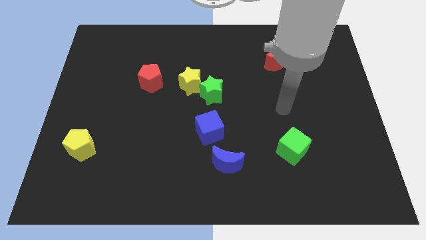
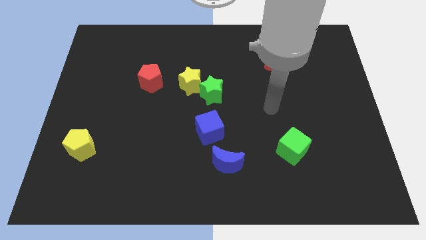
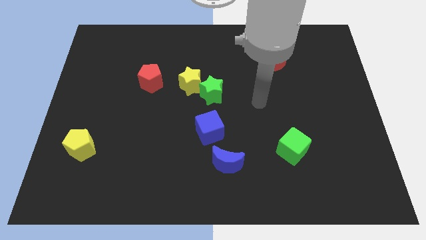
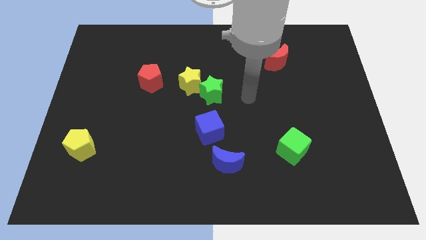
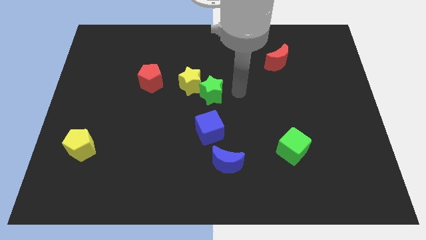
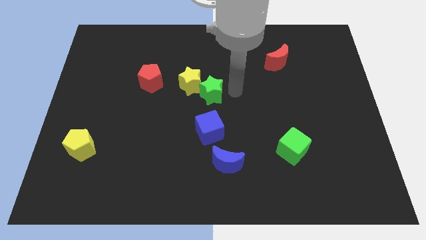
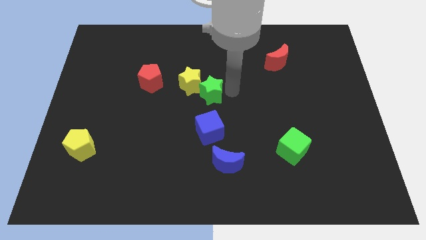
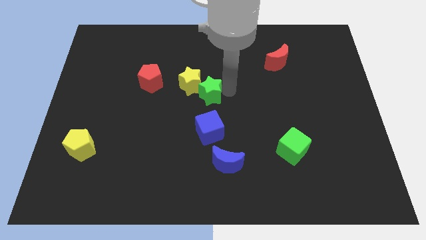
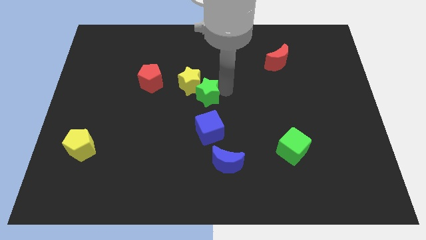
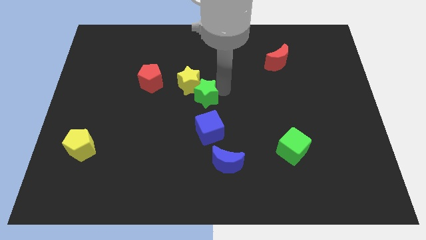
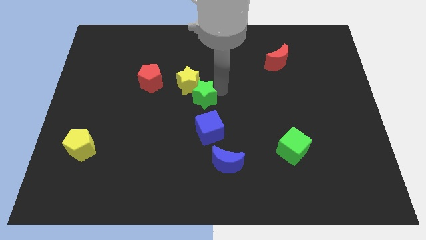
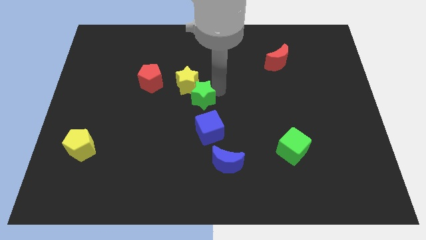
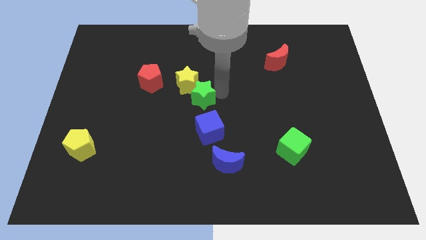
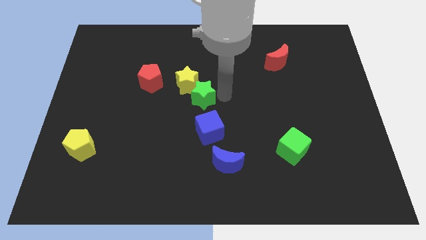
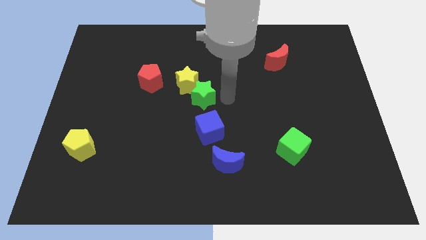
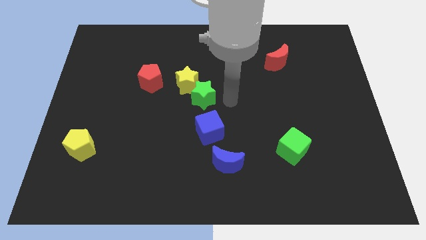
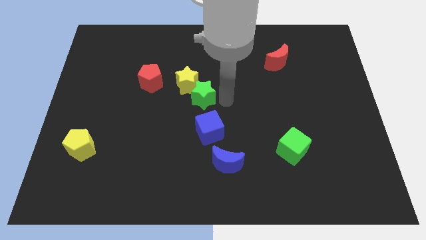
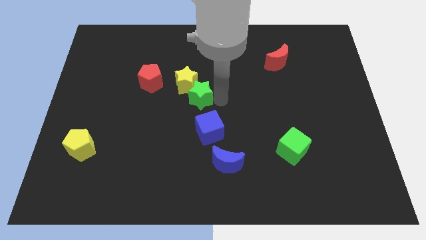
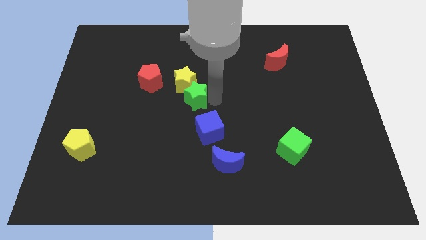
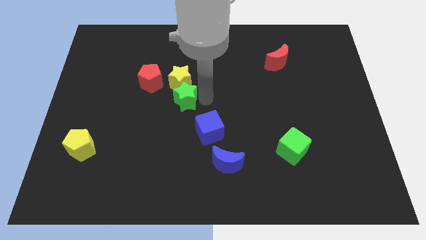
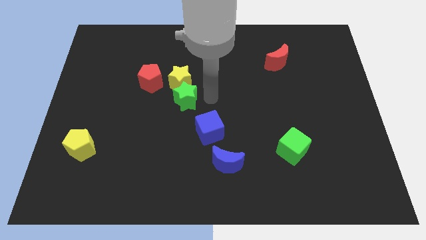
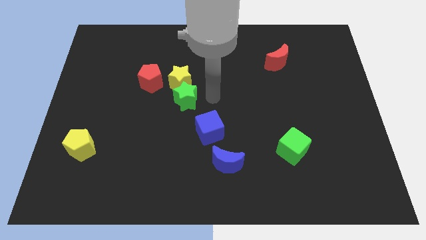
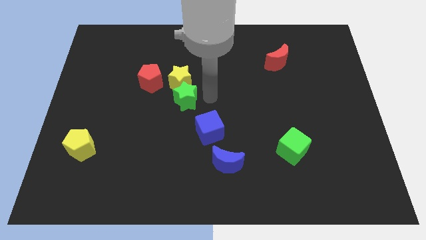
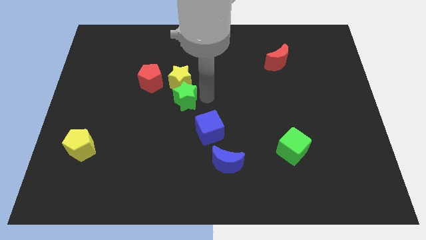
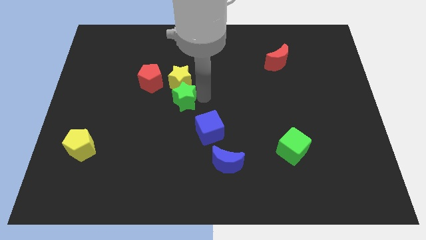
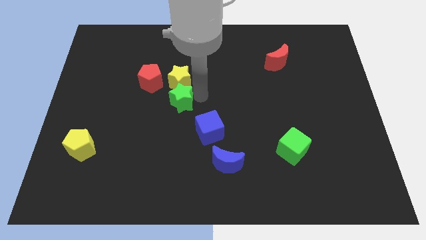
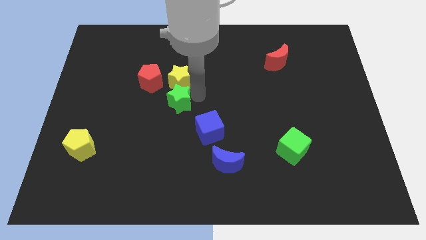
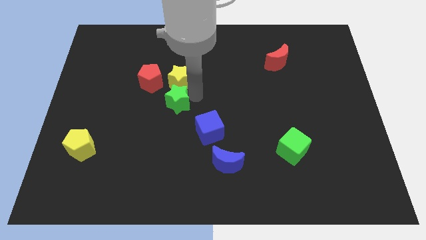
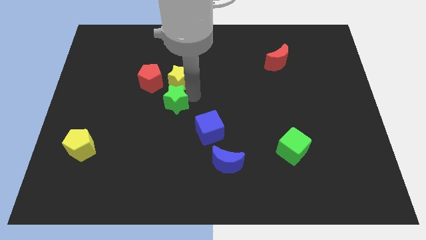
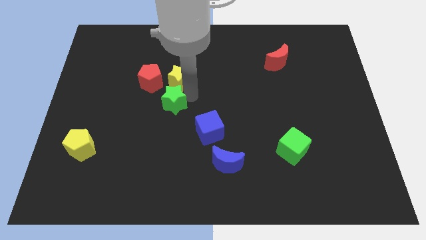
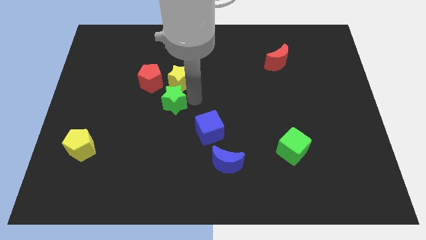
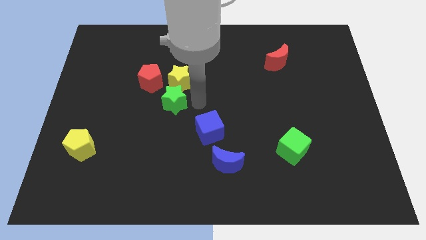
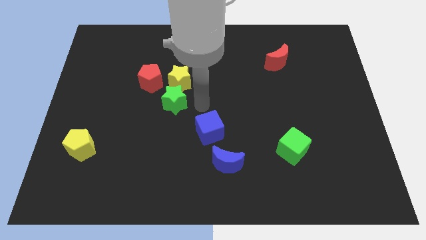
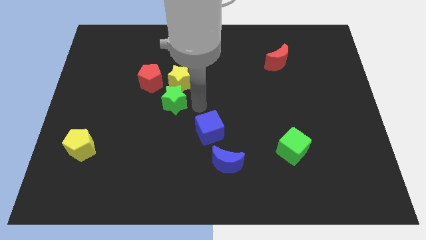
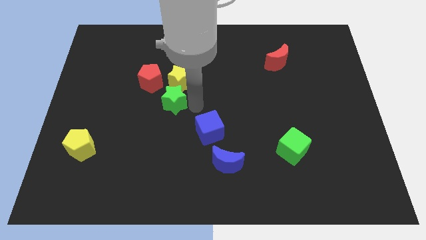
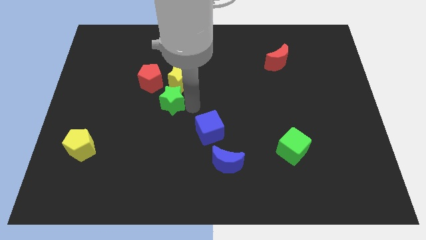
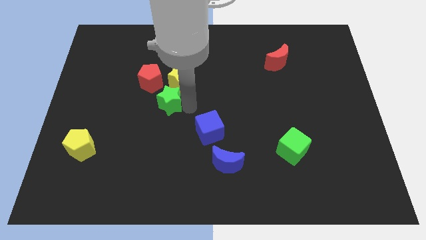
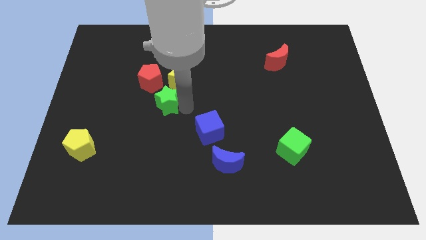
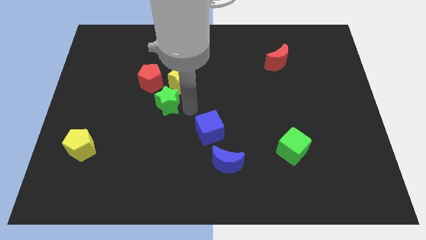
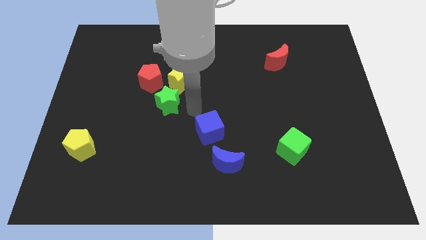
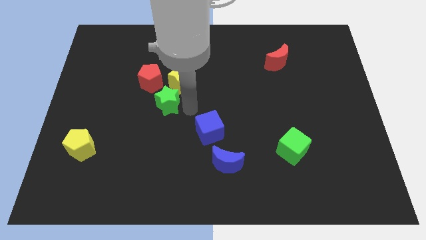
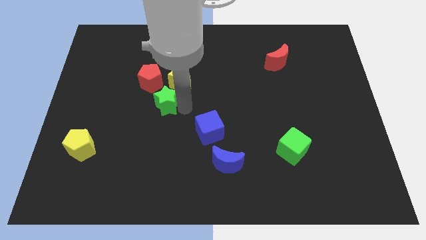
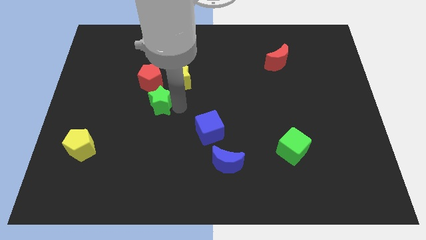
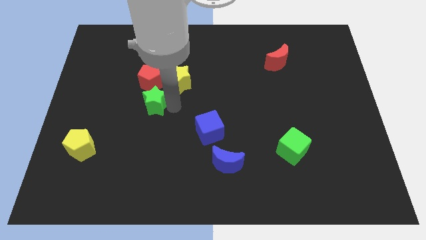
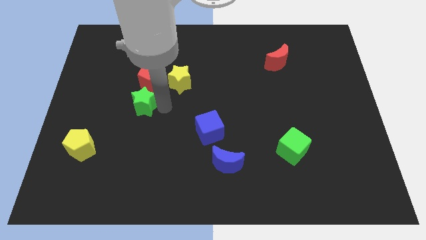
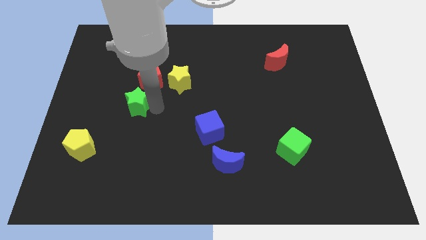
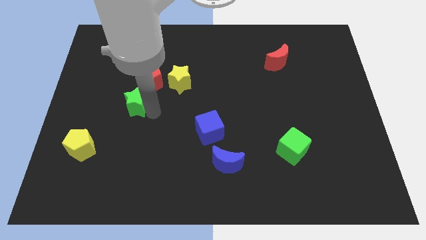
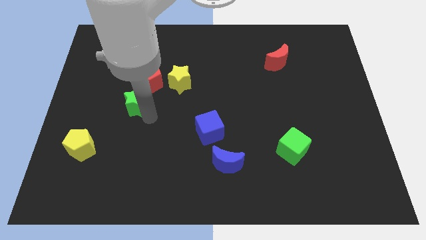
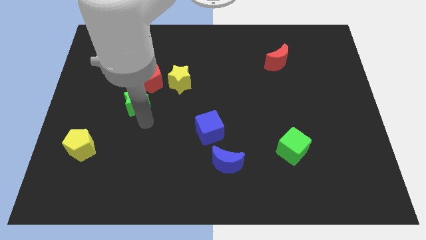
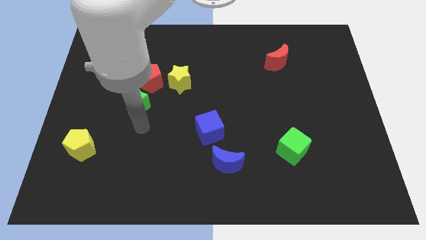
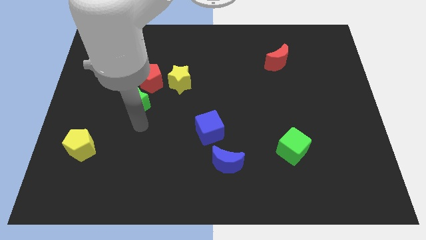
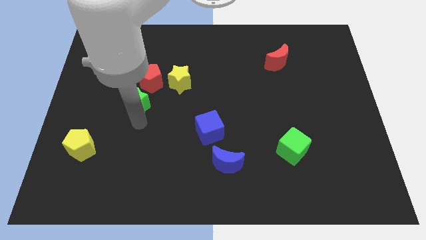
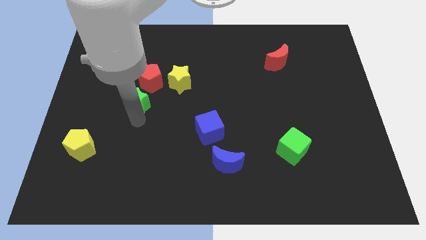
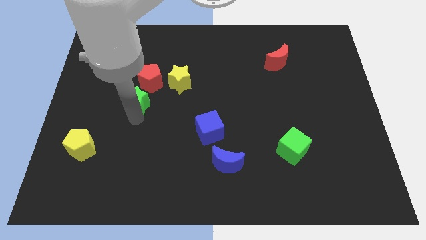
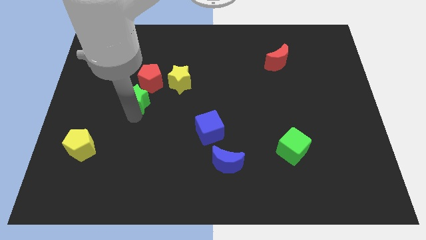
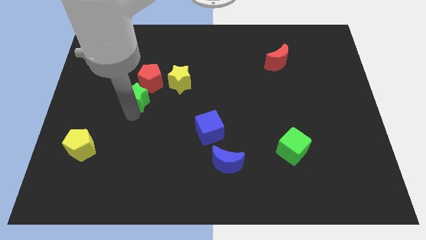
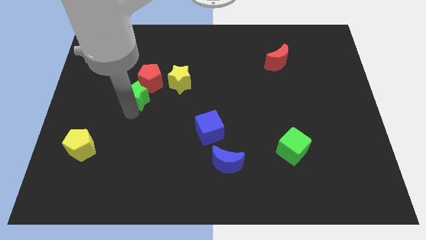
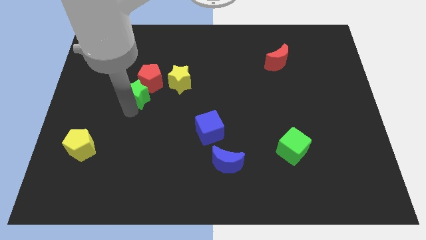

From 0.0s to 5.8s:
put the green star just left of the yellow star

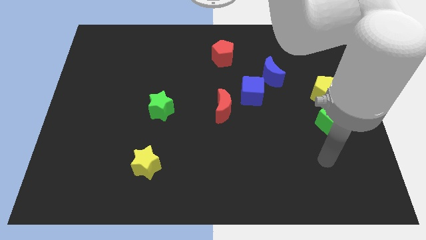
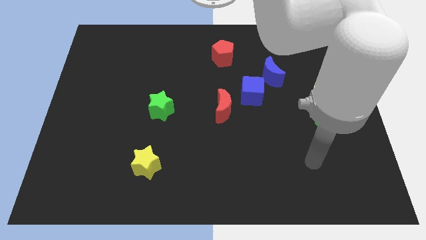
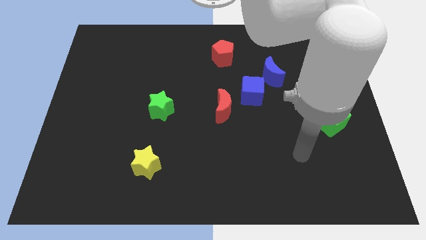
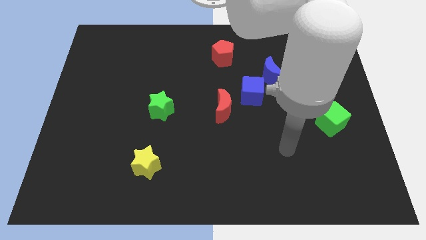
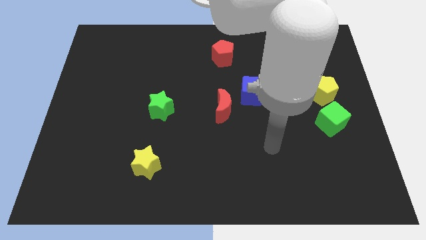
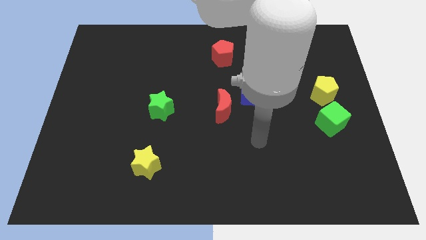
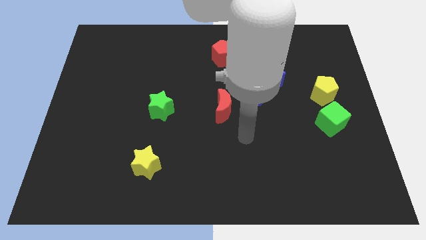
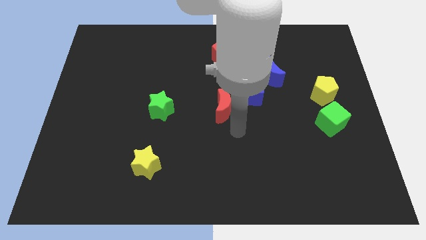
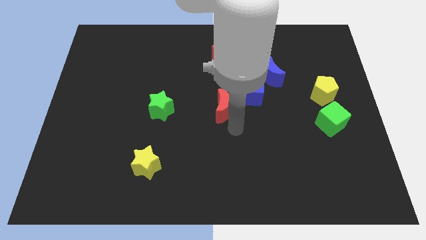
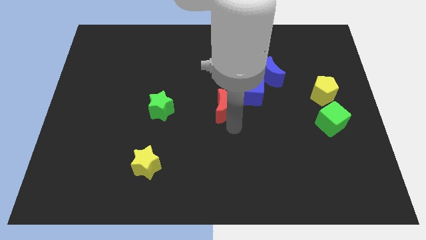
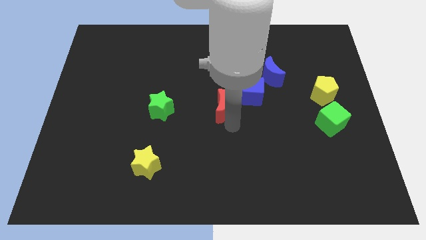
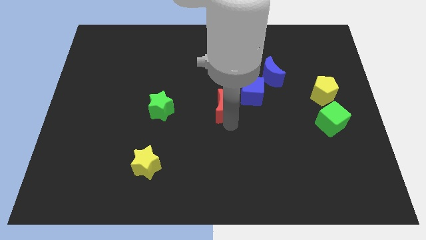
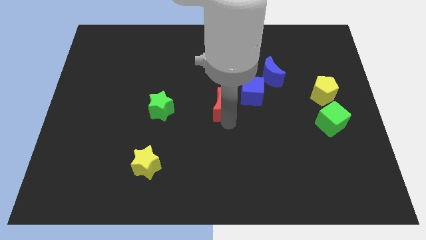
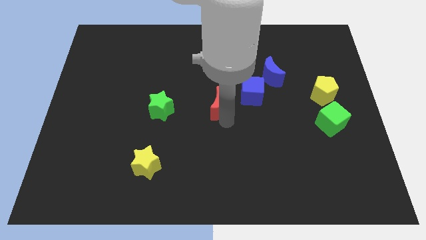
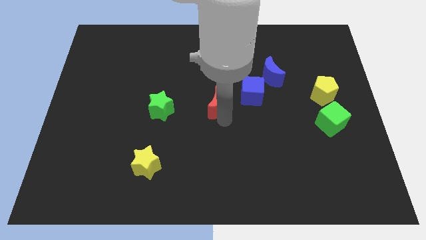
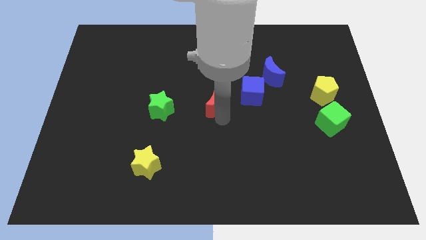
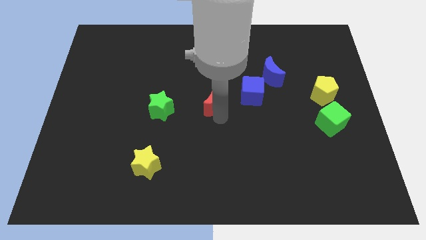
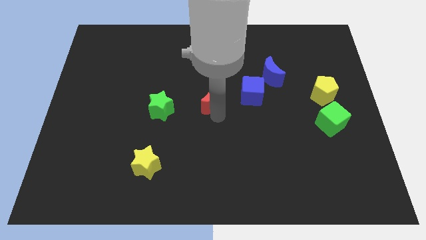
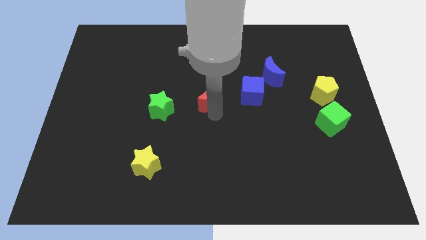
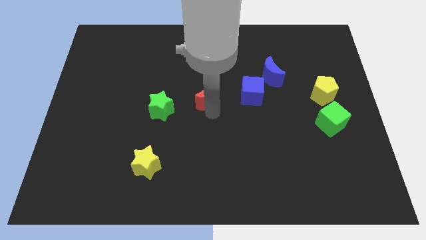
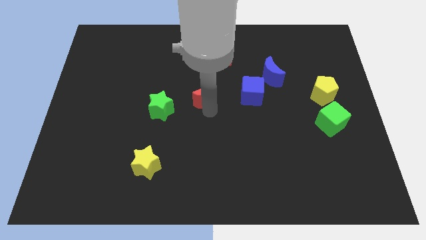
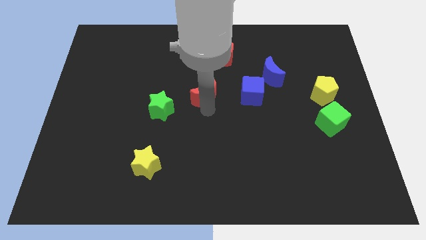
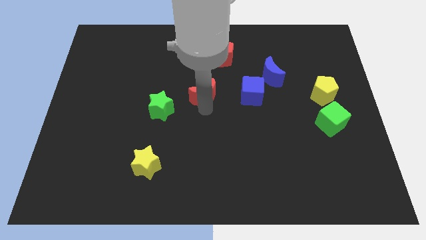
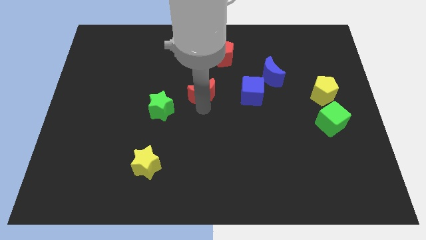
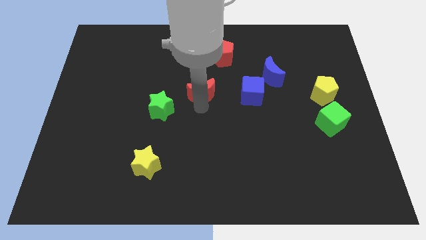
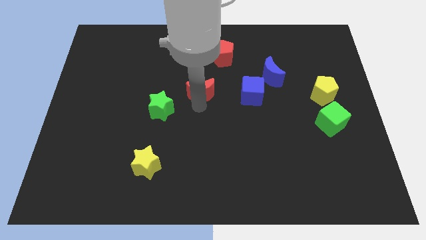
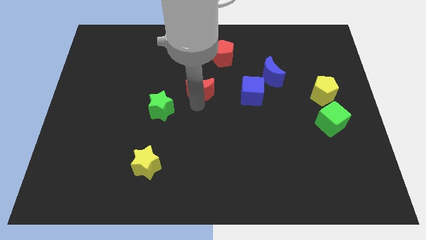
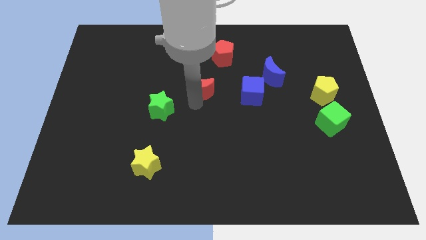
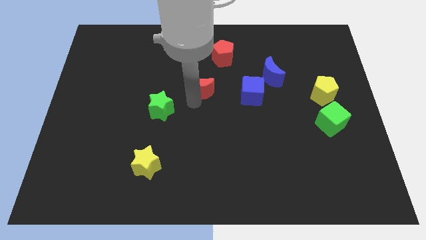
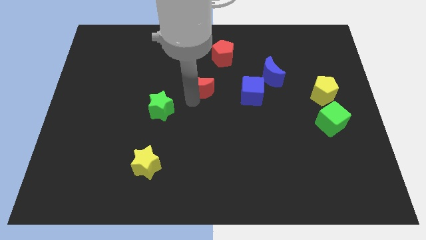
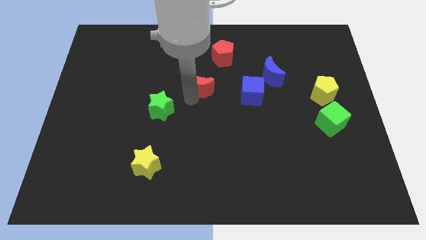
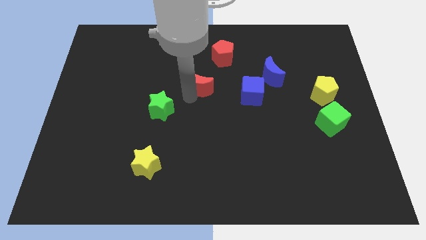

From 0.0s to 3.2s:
move the red moon to the bottom left side of the red pentagon
